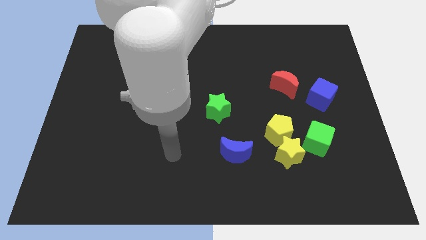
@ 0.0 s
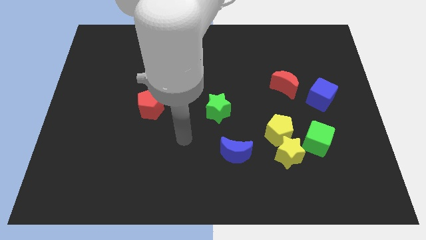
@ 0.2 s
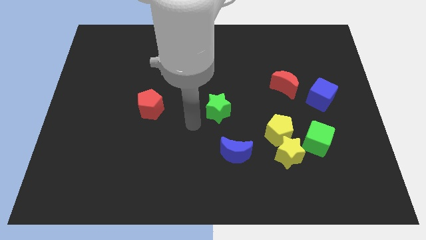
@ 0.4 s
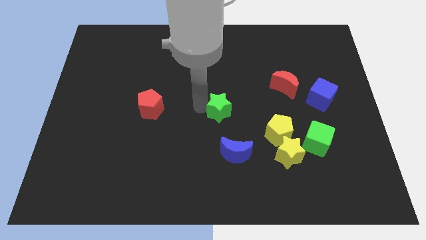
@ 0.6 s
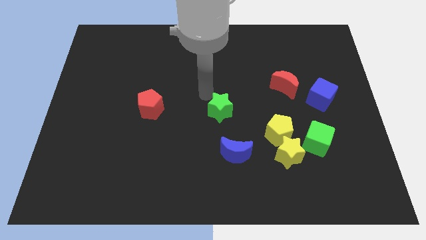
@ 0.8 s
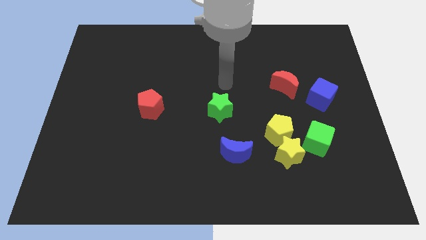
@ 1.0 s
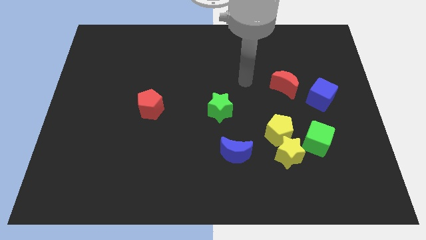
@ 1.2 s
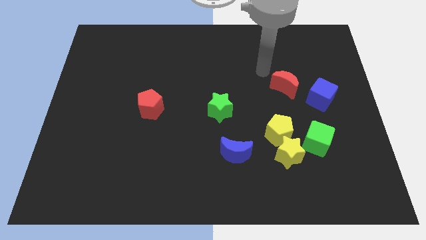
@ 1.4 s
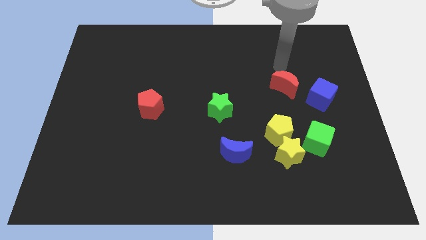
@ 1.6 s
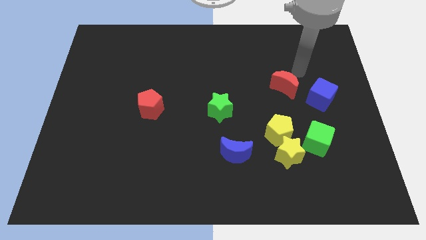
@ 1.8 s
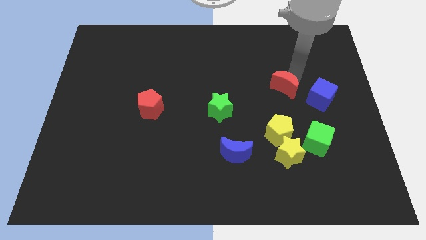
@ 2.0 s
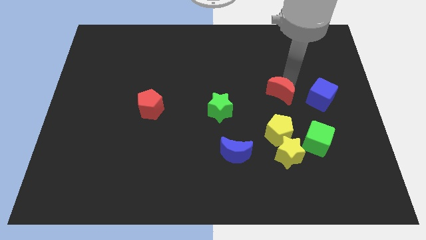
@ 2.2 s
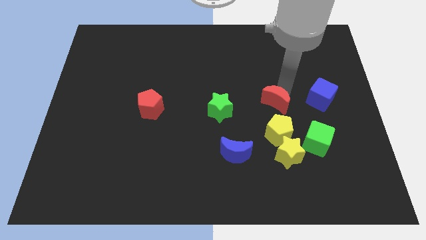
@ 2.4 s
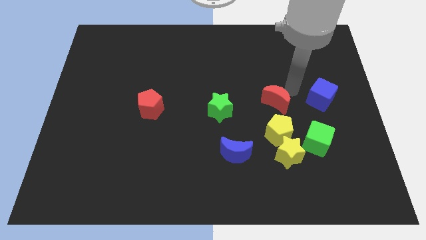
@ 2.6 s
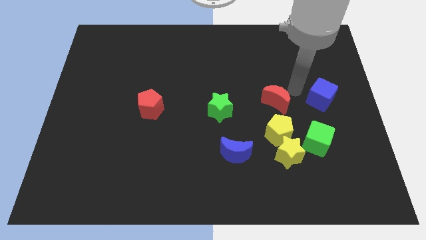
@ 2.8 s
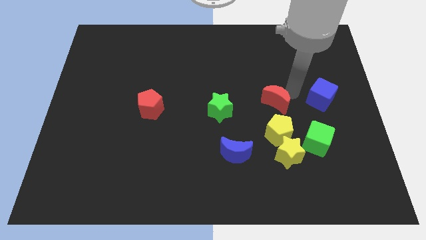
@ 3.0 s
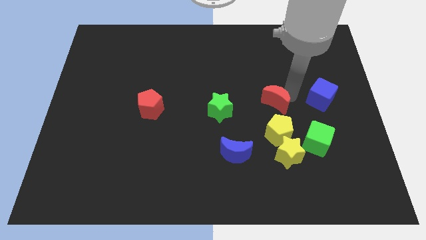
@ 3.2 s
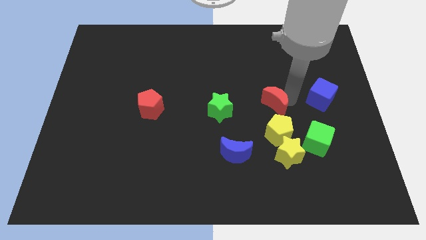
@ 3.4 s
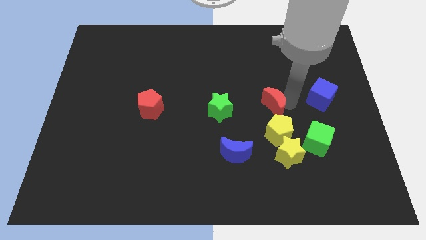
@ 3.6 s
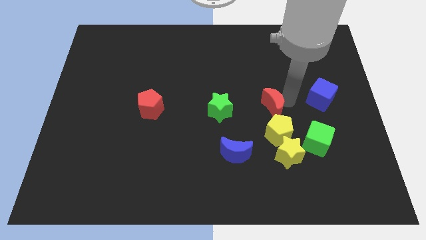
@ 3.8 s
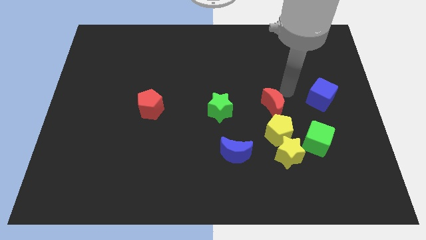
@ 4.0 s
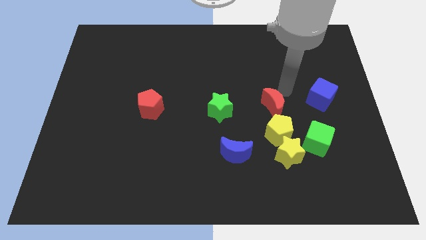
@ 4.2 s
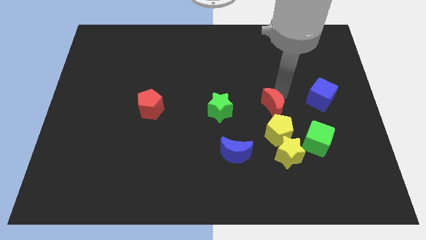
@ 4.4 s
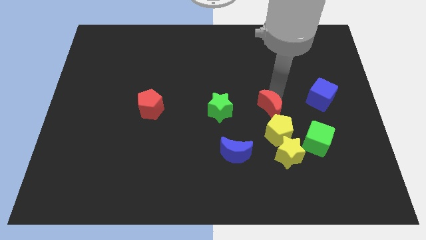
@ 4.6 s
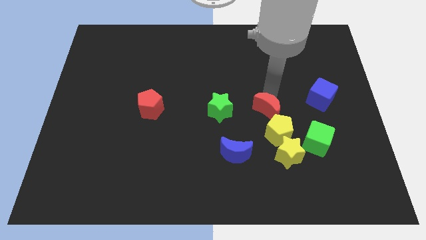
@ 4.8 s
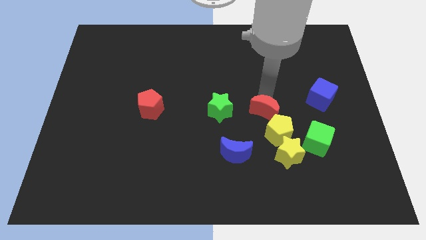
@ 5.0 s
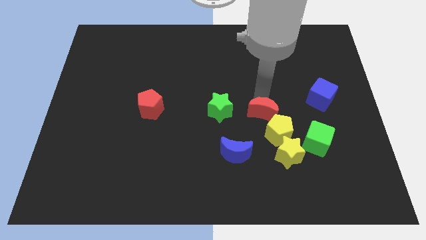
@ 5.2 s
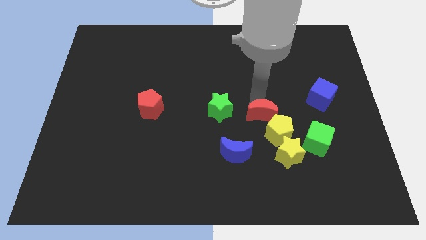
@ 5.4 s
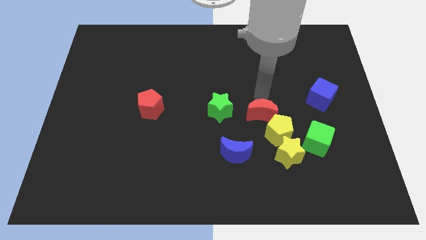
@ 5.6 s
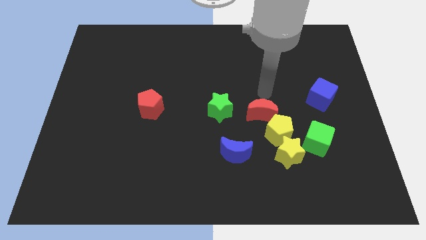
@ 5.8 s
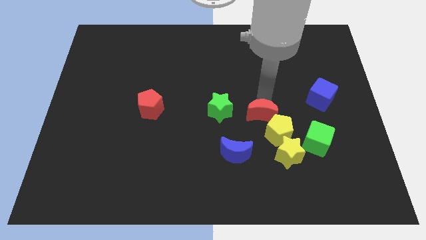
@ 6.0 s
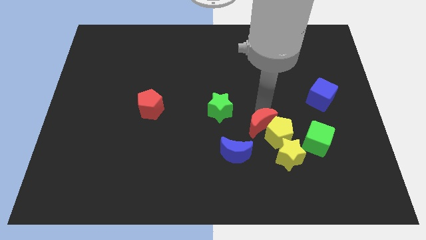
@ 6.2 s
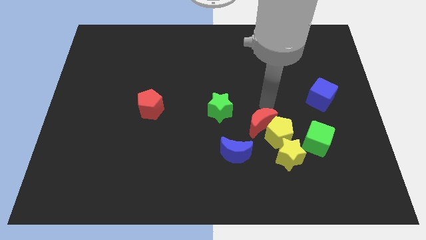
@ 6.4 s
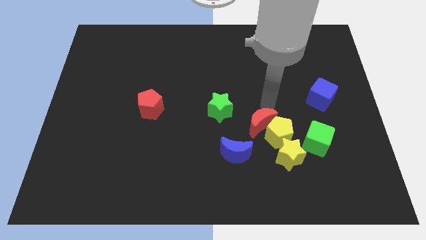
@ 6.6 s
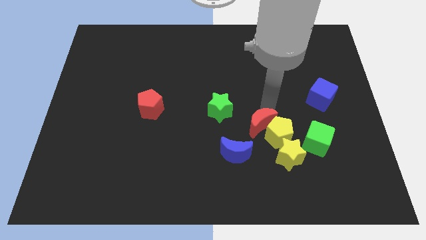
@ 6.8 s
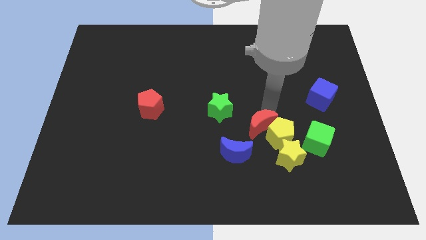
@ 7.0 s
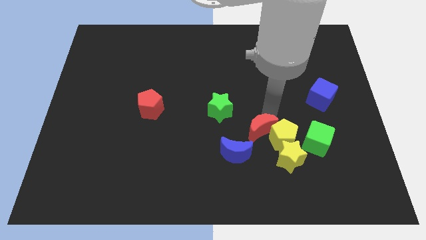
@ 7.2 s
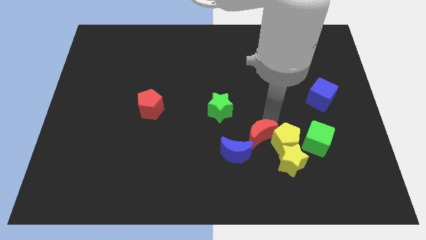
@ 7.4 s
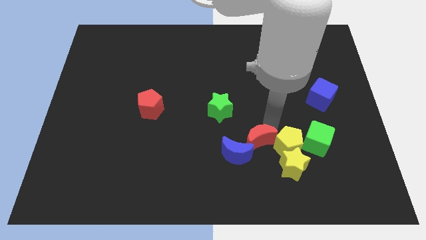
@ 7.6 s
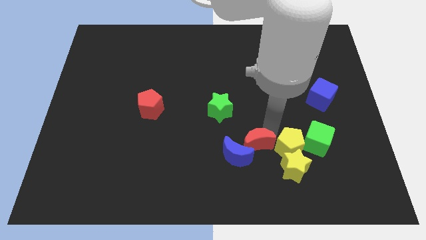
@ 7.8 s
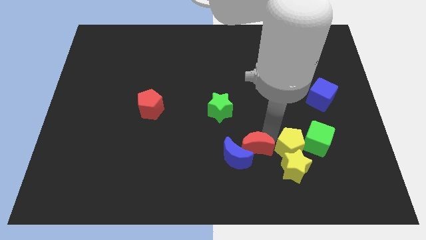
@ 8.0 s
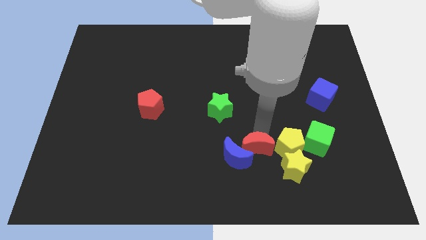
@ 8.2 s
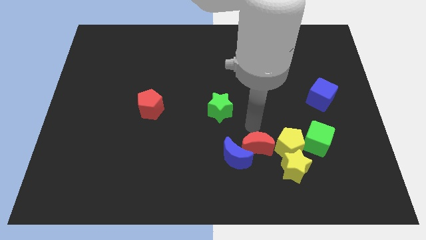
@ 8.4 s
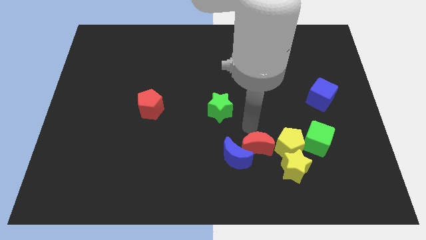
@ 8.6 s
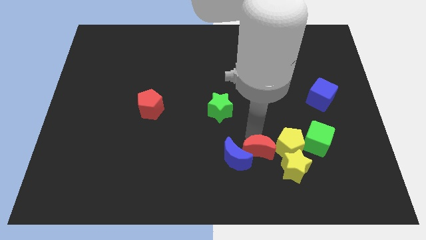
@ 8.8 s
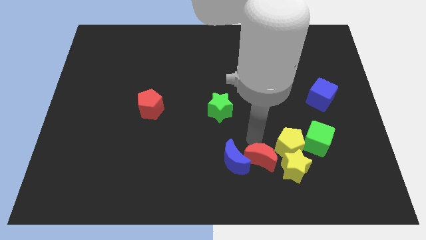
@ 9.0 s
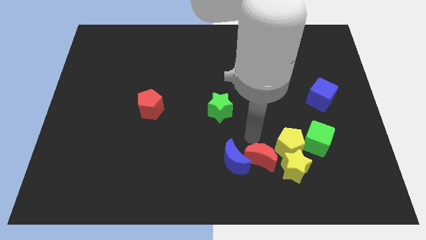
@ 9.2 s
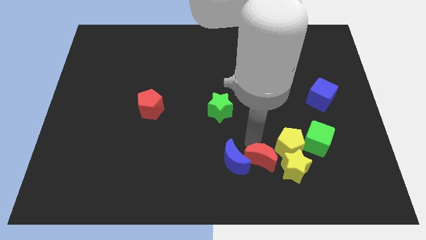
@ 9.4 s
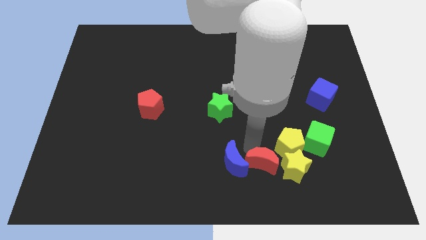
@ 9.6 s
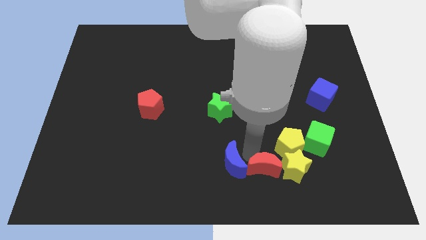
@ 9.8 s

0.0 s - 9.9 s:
move the red moon to the bottom left of the yellow star

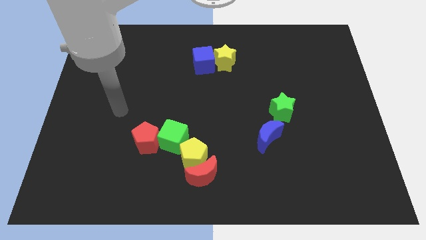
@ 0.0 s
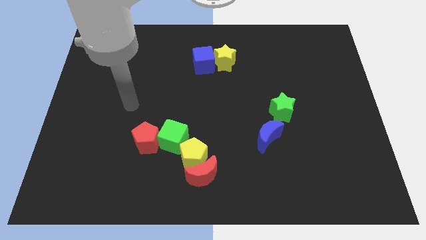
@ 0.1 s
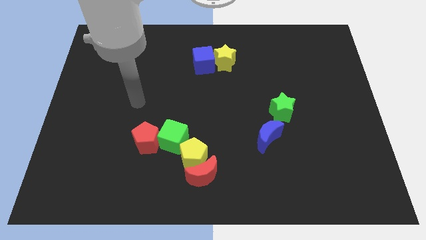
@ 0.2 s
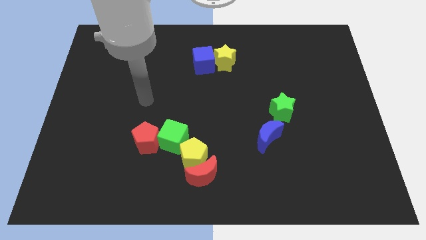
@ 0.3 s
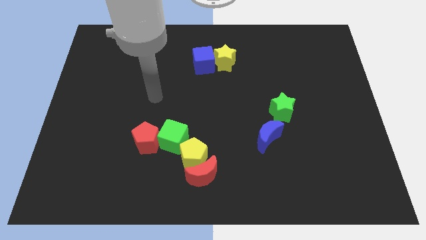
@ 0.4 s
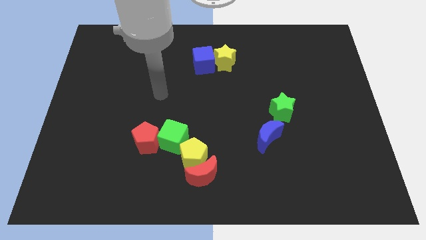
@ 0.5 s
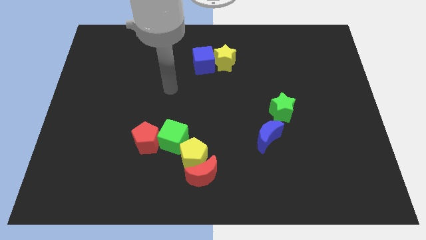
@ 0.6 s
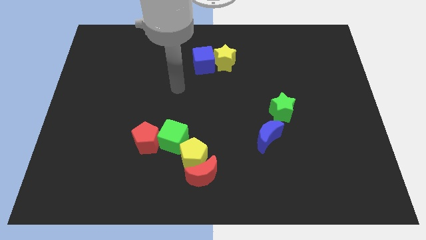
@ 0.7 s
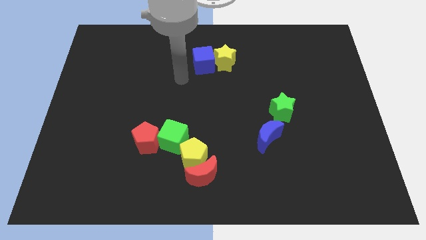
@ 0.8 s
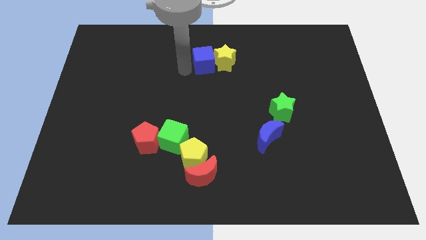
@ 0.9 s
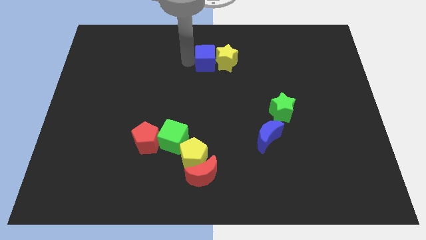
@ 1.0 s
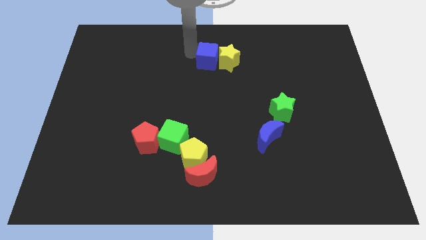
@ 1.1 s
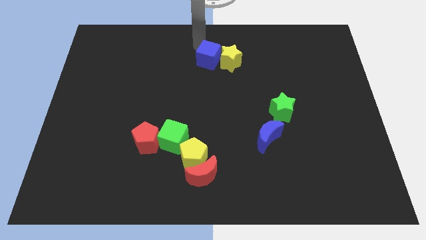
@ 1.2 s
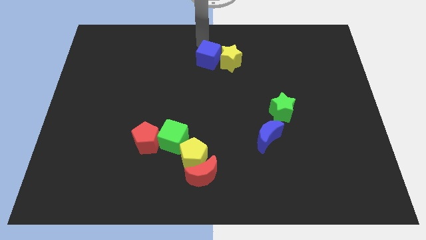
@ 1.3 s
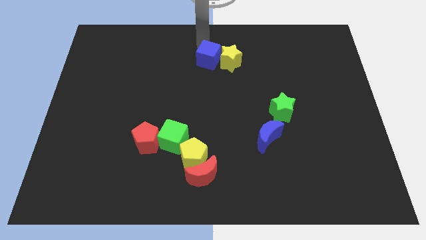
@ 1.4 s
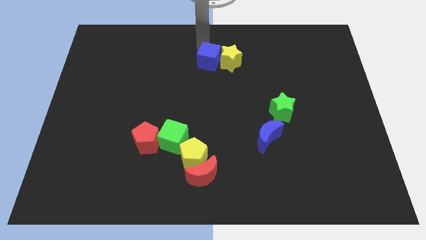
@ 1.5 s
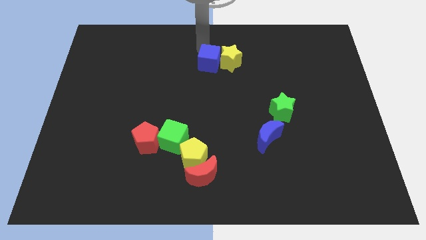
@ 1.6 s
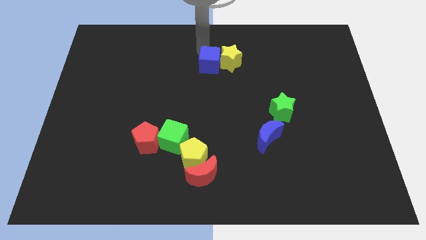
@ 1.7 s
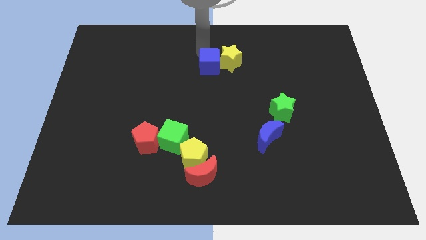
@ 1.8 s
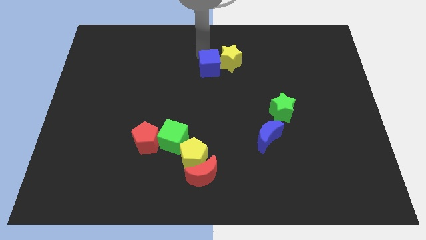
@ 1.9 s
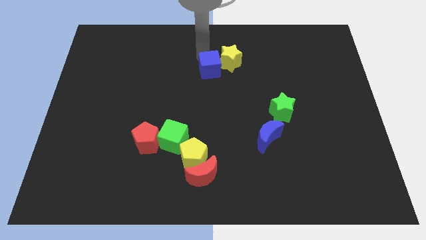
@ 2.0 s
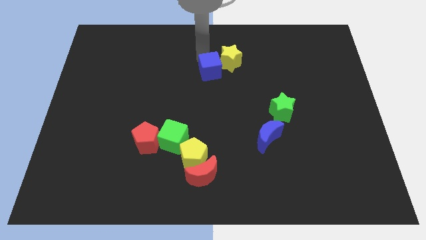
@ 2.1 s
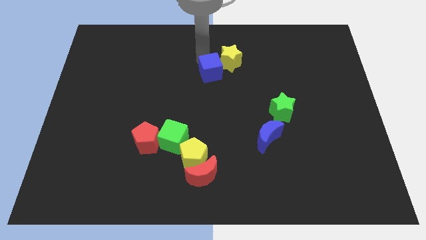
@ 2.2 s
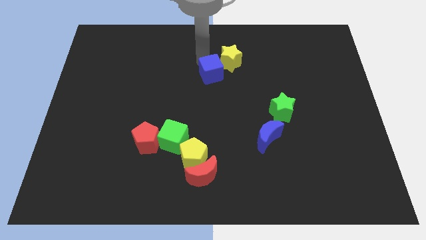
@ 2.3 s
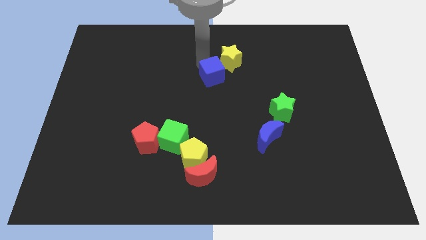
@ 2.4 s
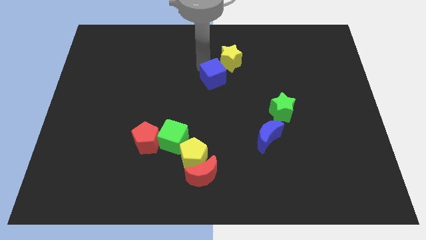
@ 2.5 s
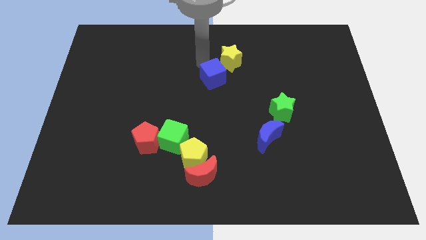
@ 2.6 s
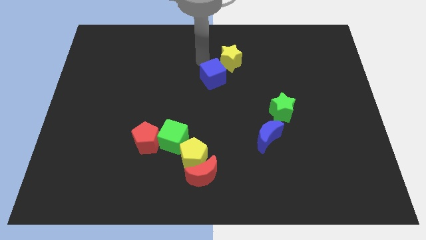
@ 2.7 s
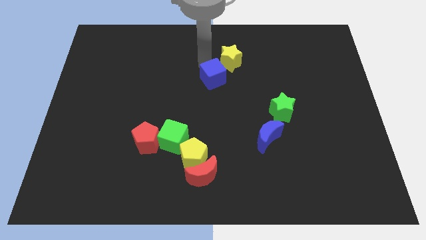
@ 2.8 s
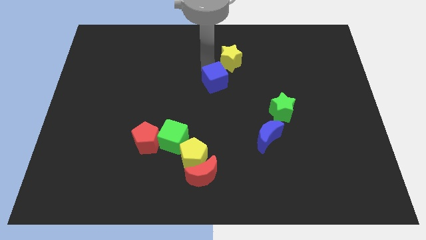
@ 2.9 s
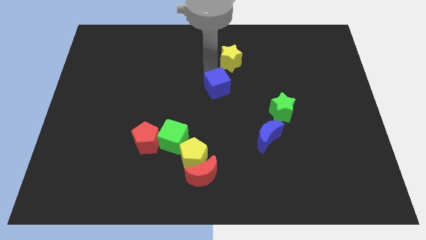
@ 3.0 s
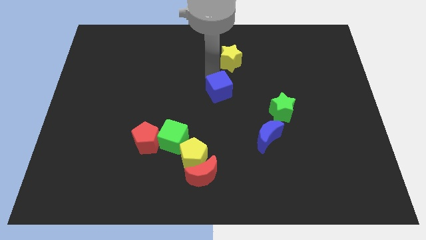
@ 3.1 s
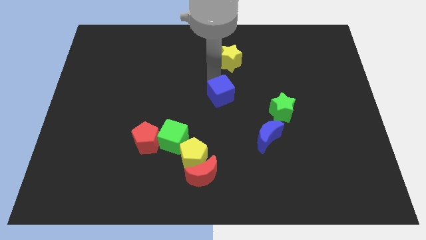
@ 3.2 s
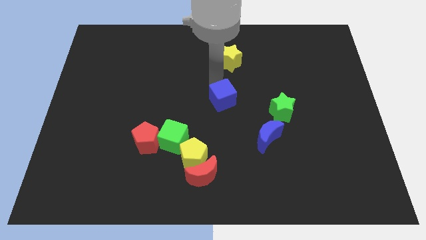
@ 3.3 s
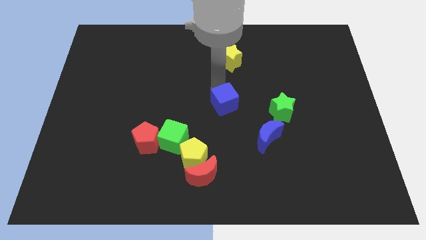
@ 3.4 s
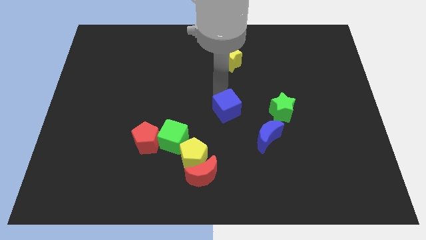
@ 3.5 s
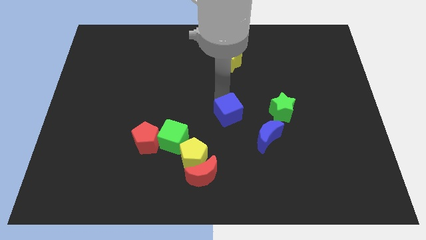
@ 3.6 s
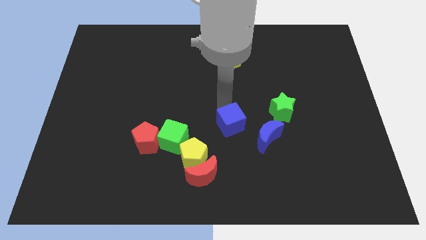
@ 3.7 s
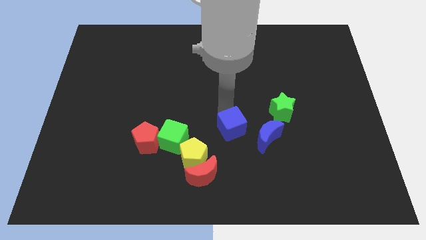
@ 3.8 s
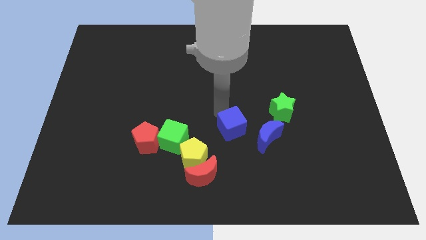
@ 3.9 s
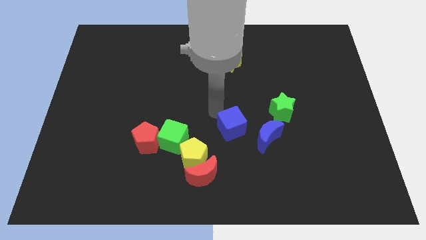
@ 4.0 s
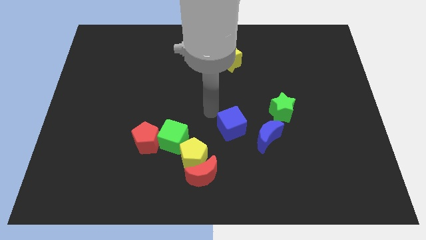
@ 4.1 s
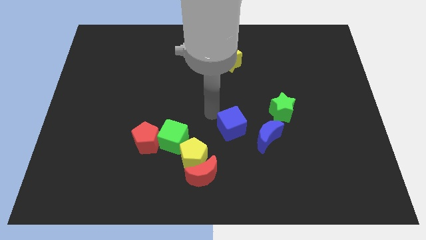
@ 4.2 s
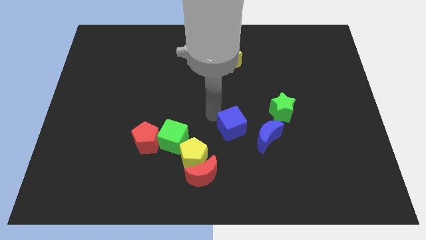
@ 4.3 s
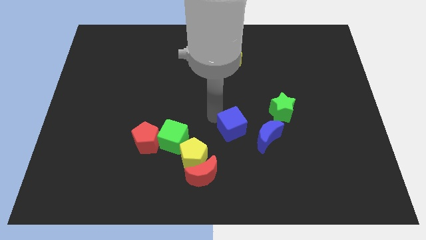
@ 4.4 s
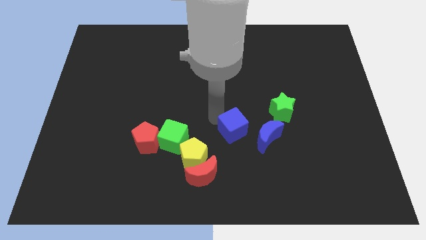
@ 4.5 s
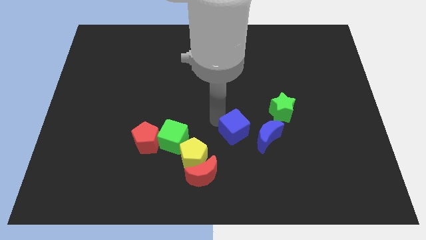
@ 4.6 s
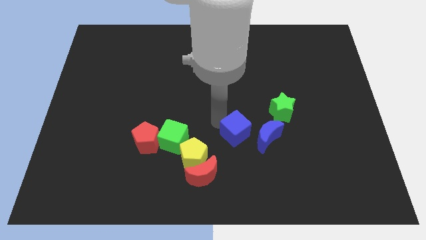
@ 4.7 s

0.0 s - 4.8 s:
slide the blue cube to the bottom left side of the green star
